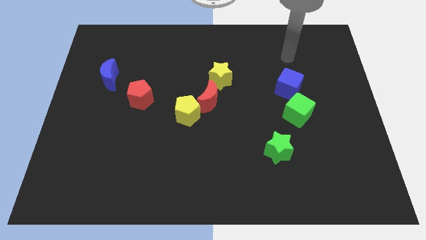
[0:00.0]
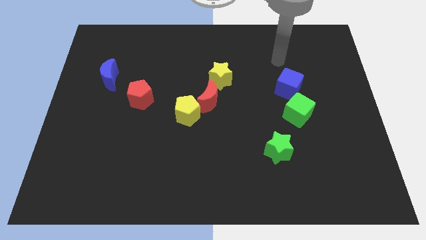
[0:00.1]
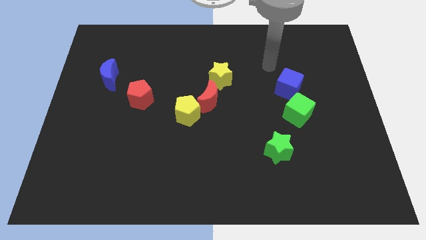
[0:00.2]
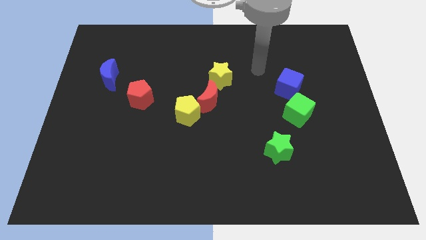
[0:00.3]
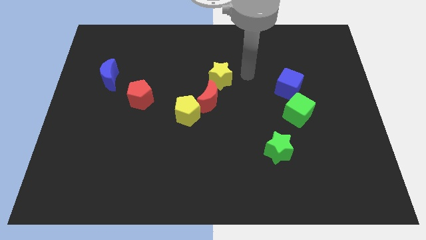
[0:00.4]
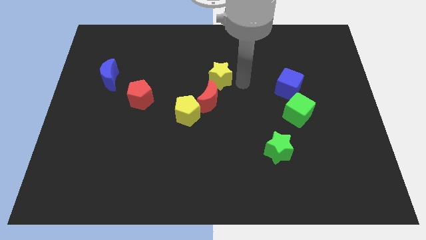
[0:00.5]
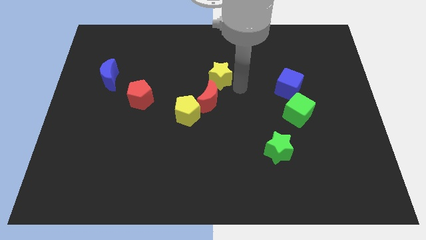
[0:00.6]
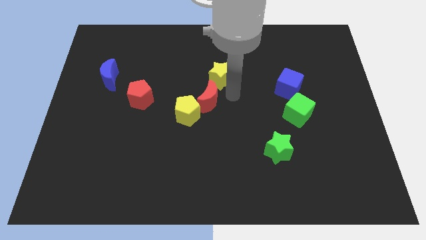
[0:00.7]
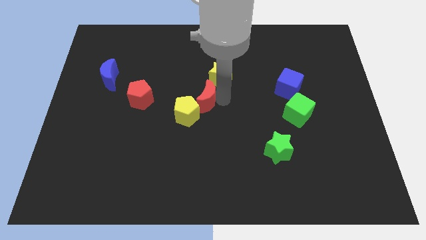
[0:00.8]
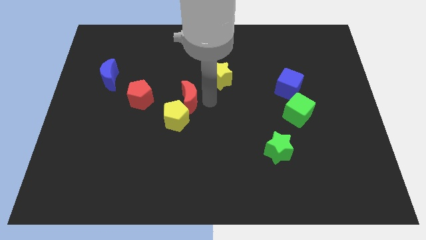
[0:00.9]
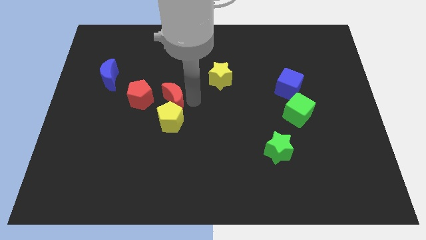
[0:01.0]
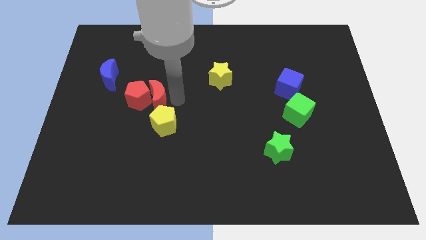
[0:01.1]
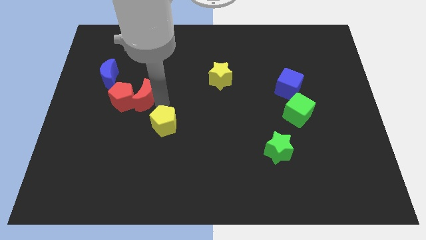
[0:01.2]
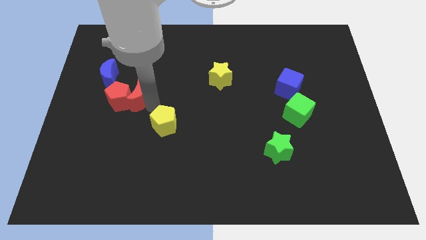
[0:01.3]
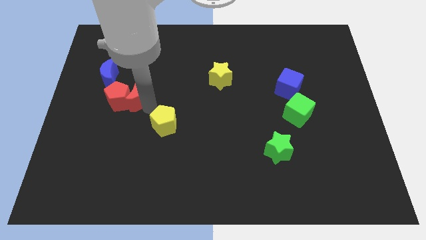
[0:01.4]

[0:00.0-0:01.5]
move the yellow pentagon away from the red moon

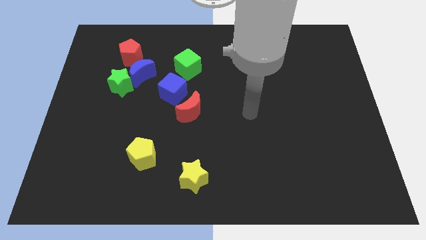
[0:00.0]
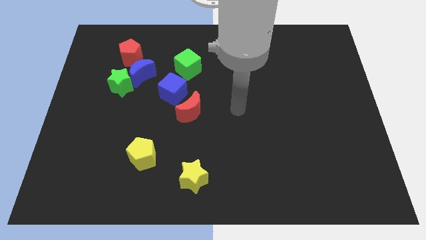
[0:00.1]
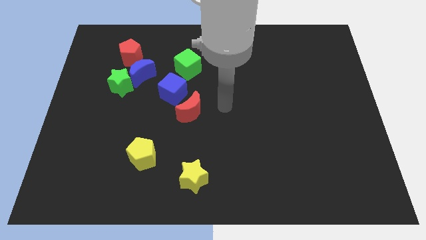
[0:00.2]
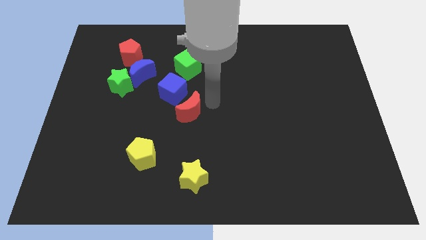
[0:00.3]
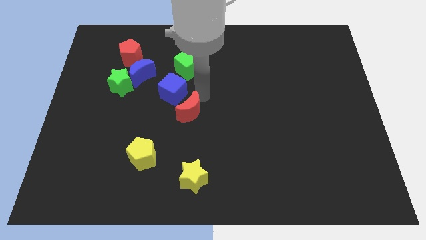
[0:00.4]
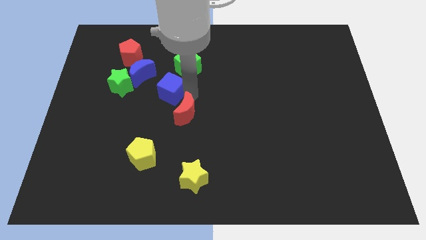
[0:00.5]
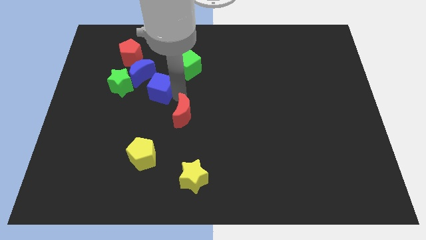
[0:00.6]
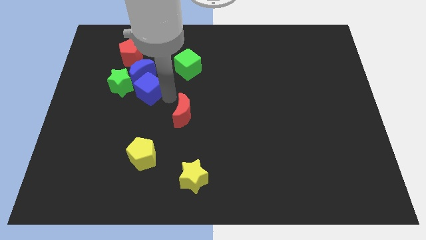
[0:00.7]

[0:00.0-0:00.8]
move the red moon away from the blue cube

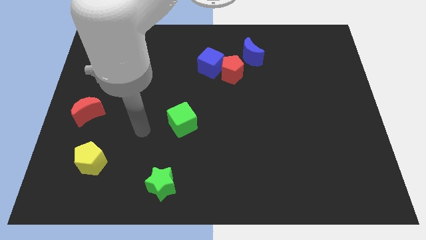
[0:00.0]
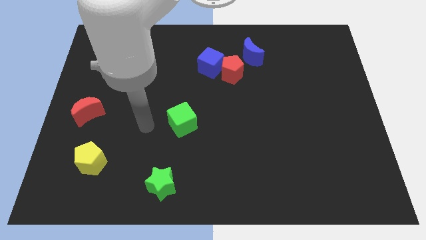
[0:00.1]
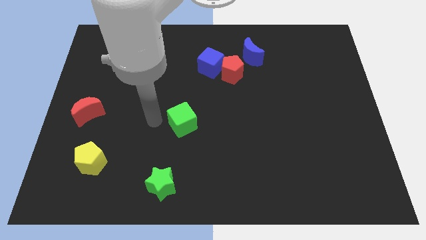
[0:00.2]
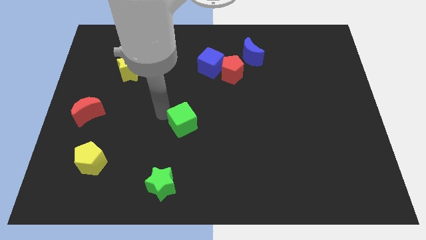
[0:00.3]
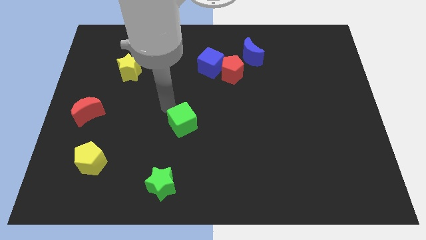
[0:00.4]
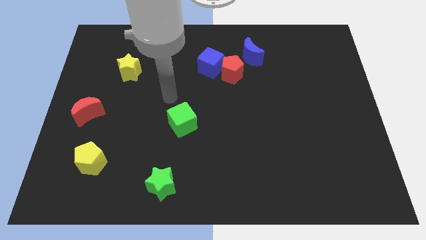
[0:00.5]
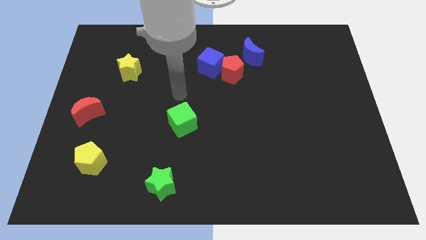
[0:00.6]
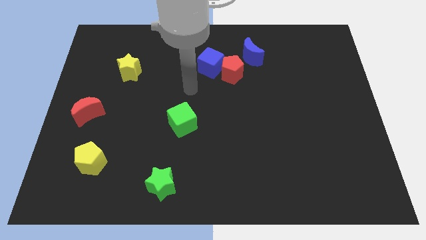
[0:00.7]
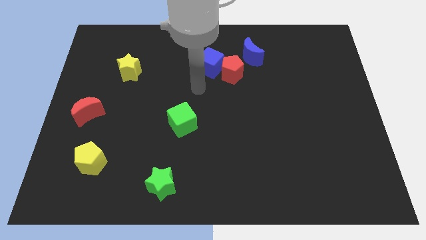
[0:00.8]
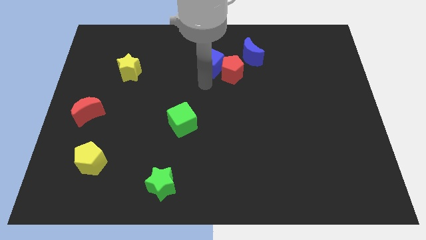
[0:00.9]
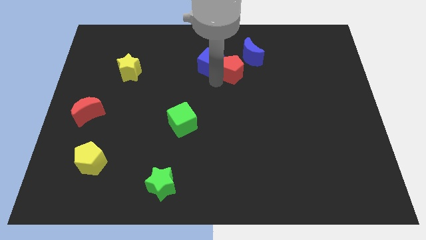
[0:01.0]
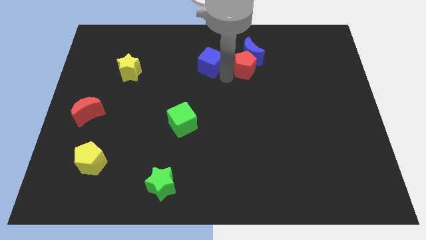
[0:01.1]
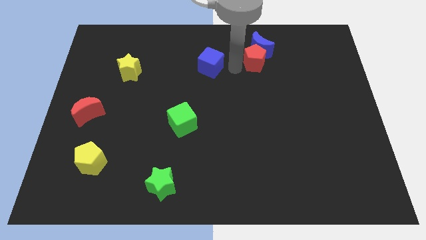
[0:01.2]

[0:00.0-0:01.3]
separate the blue cube from the red pentagon

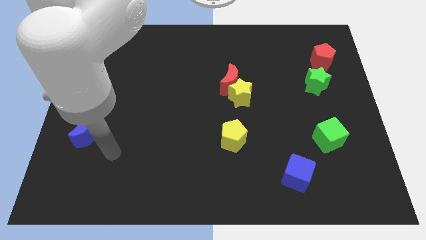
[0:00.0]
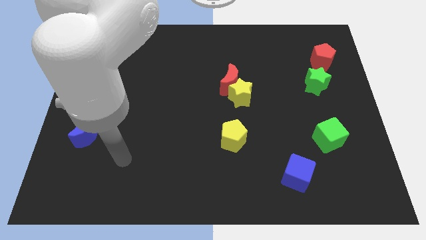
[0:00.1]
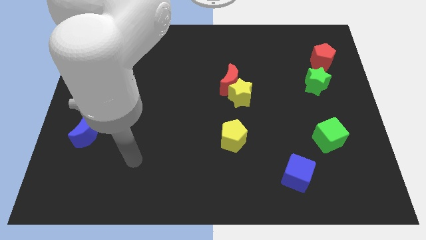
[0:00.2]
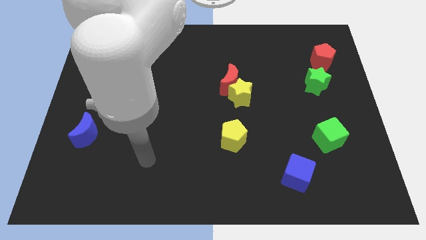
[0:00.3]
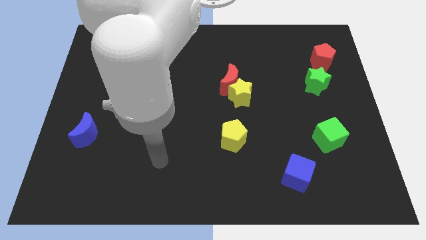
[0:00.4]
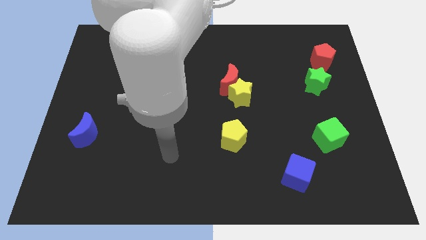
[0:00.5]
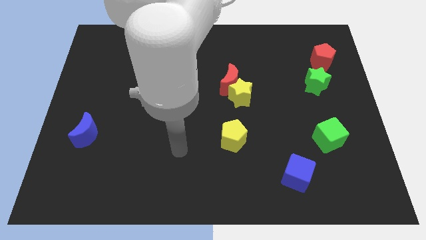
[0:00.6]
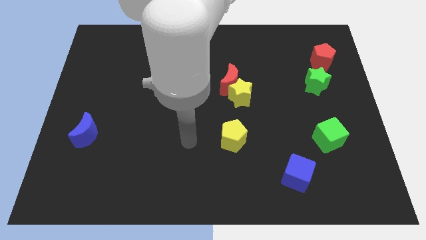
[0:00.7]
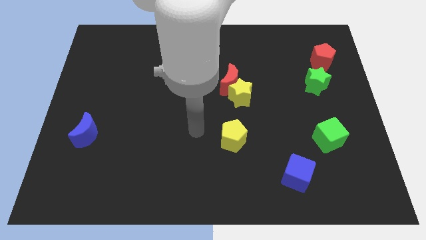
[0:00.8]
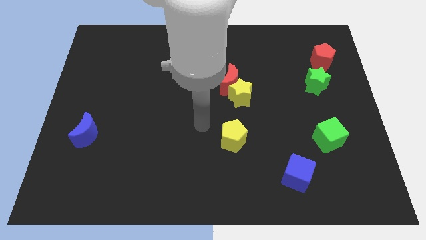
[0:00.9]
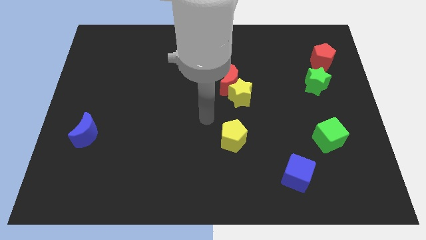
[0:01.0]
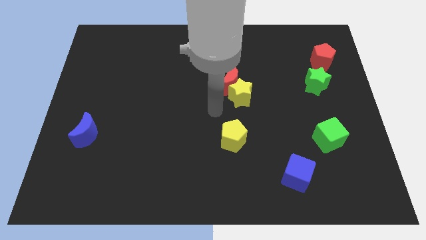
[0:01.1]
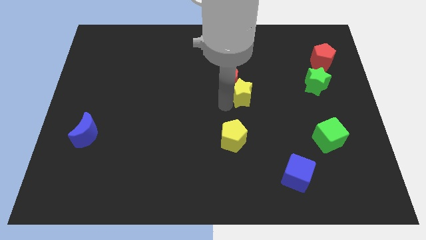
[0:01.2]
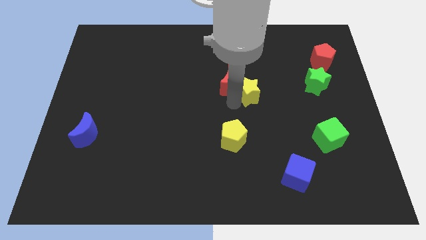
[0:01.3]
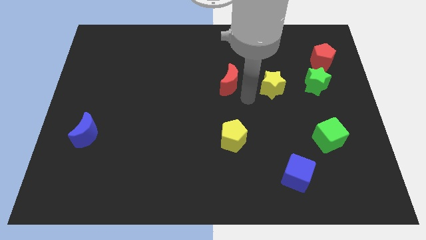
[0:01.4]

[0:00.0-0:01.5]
separate the red moon from the yellow star

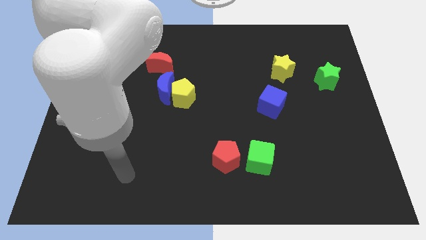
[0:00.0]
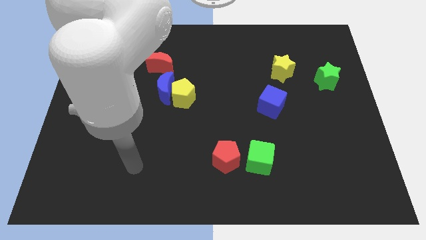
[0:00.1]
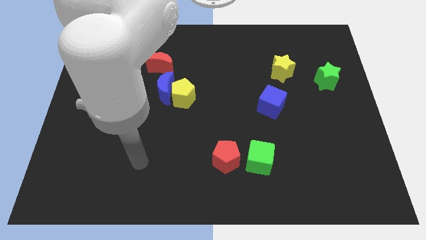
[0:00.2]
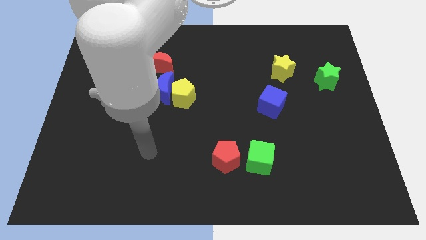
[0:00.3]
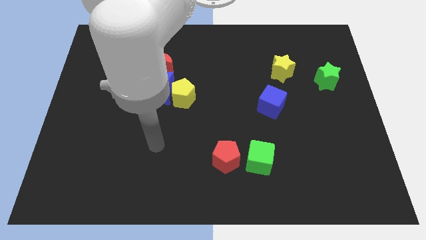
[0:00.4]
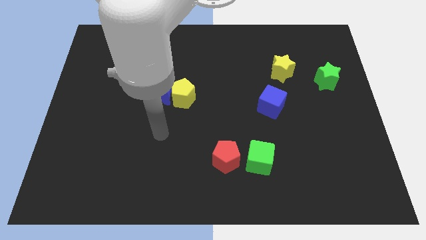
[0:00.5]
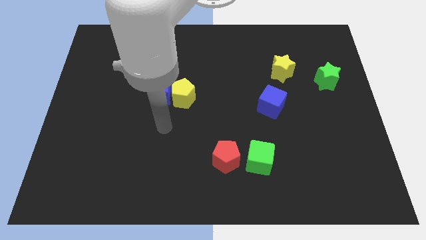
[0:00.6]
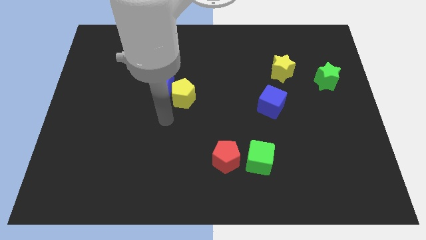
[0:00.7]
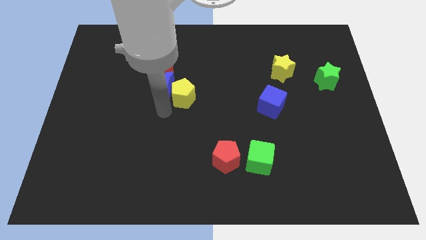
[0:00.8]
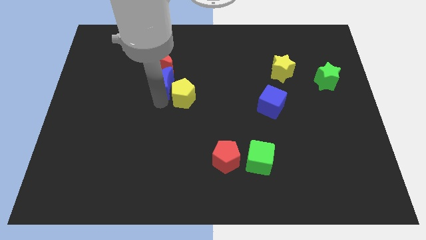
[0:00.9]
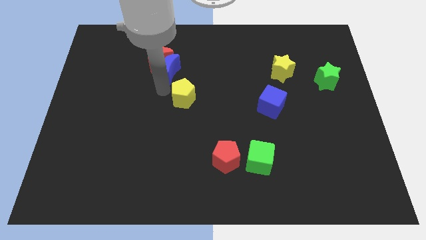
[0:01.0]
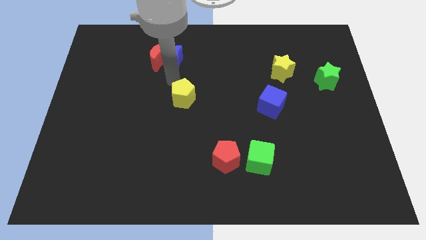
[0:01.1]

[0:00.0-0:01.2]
separate the yellow pentagon from the blue moon

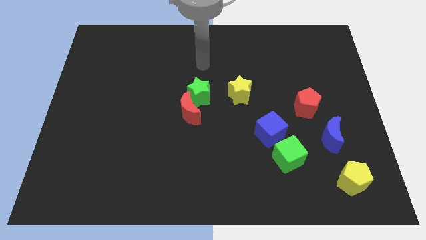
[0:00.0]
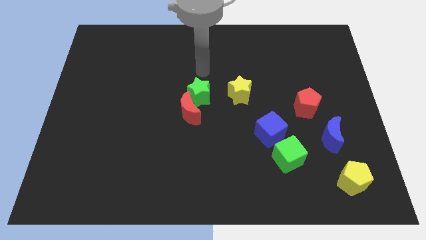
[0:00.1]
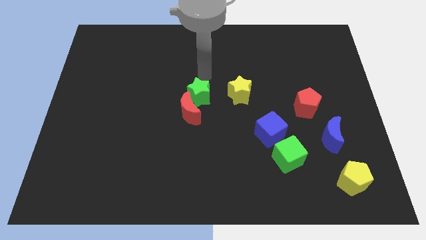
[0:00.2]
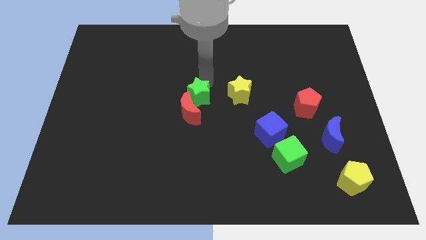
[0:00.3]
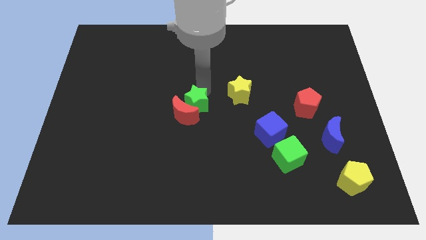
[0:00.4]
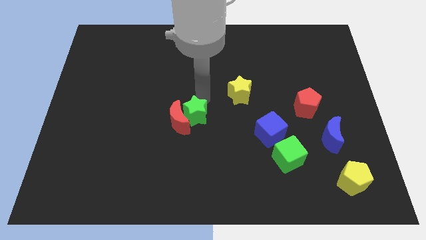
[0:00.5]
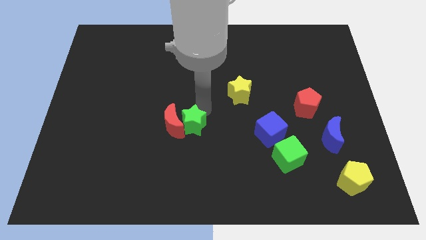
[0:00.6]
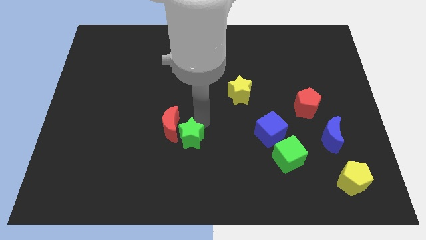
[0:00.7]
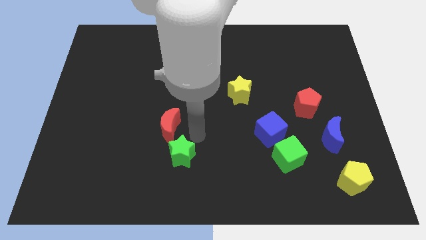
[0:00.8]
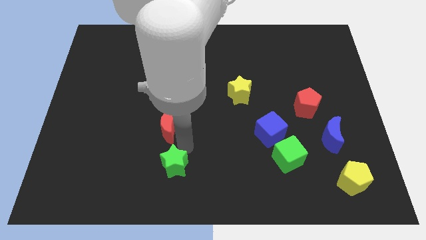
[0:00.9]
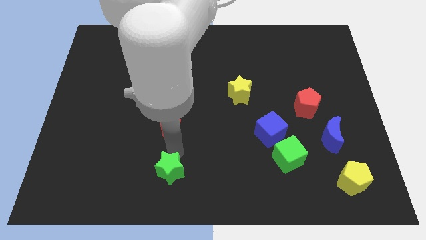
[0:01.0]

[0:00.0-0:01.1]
separate the red moon from the green star

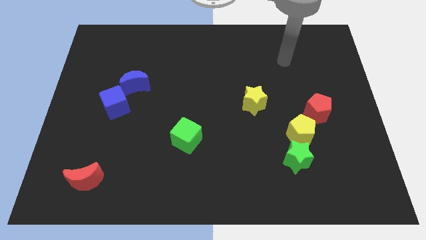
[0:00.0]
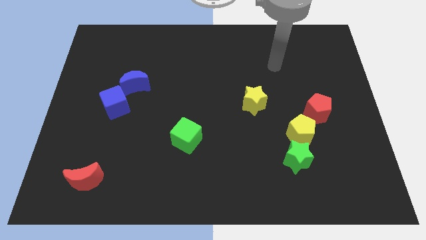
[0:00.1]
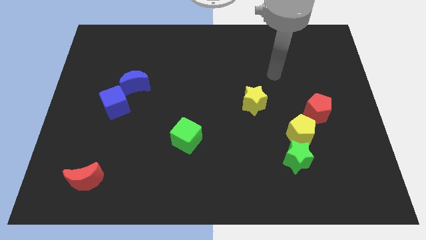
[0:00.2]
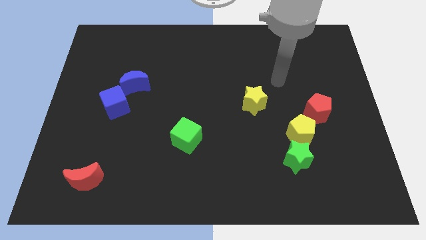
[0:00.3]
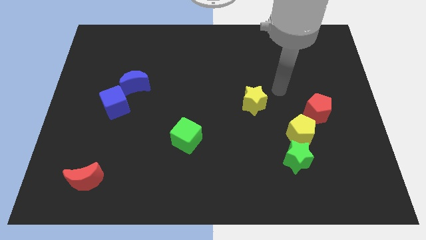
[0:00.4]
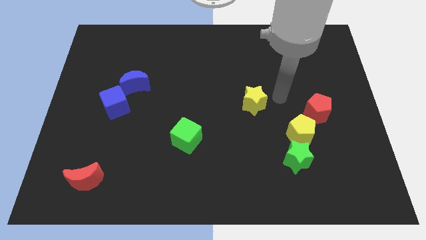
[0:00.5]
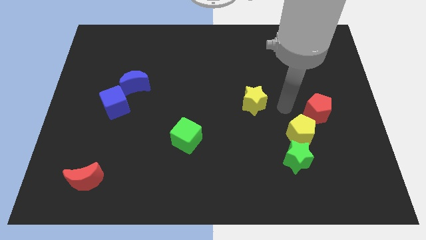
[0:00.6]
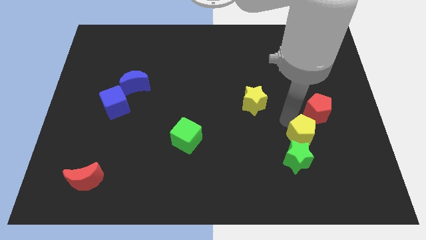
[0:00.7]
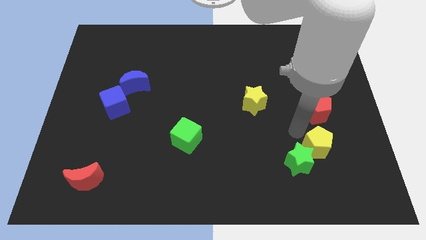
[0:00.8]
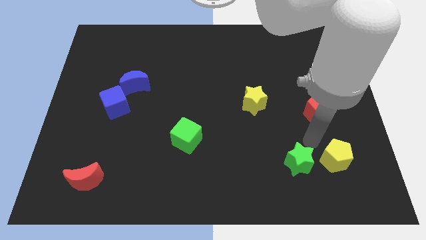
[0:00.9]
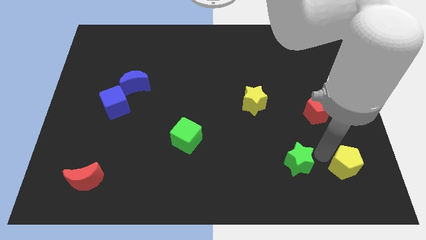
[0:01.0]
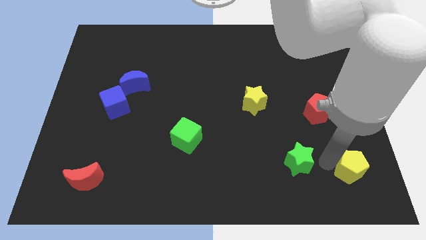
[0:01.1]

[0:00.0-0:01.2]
pull the green star apart from the yellow pentagon

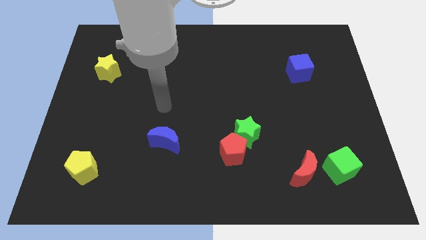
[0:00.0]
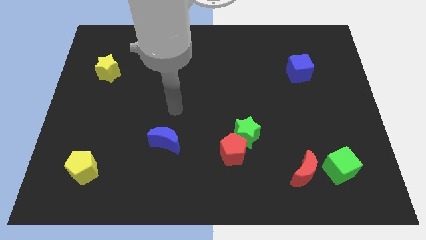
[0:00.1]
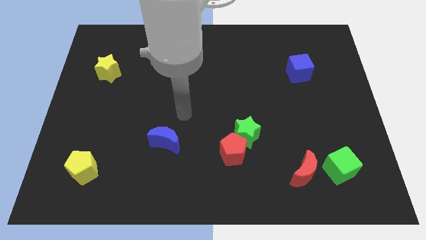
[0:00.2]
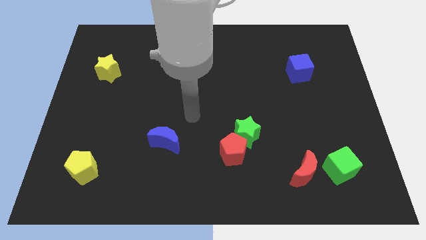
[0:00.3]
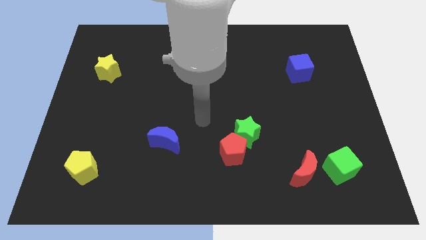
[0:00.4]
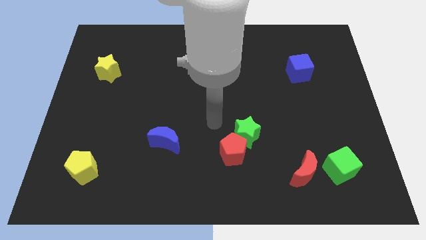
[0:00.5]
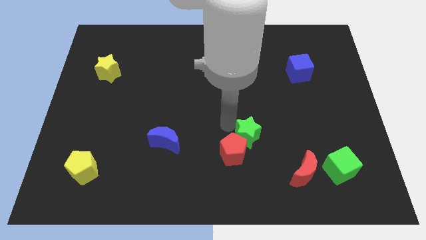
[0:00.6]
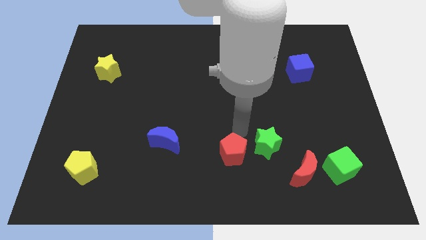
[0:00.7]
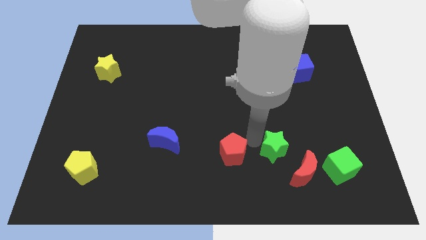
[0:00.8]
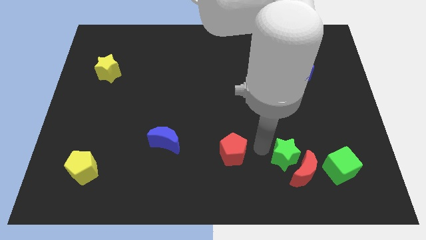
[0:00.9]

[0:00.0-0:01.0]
pull the red pentagon apart from the green star
